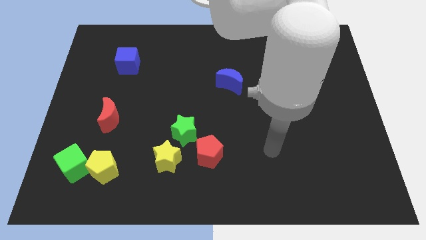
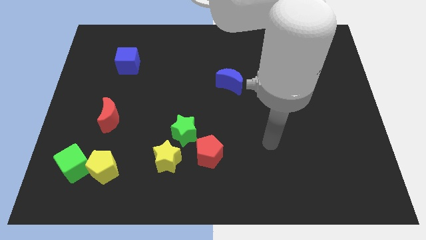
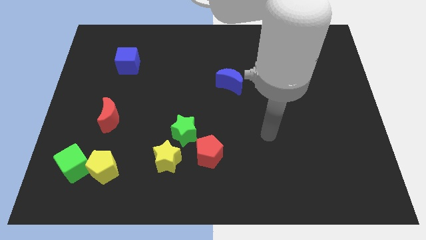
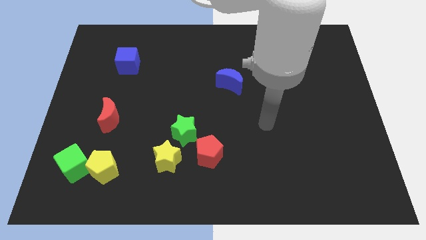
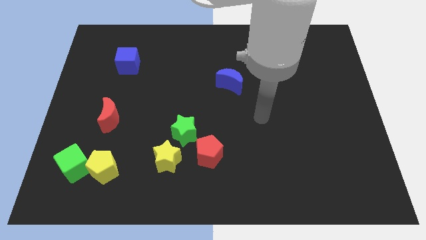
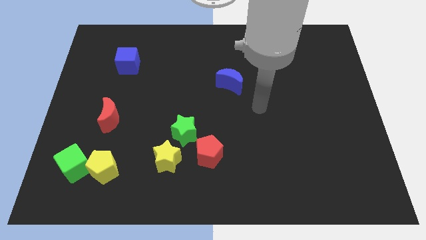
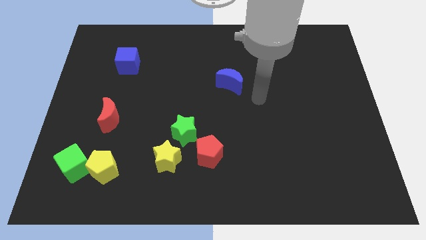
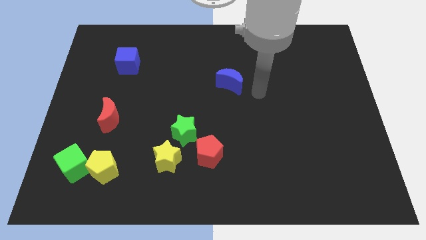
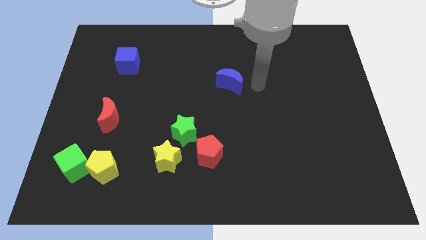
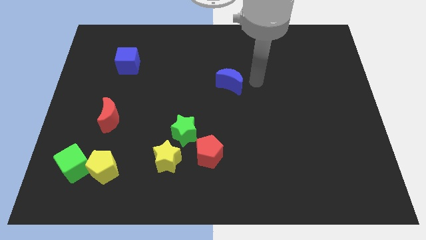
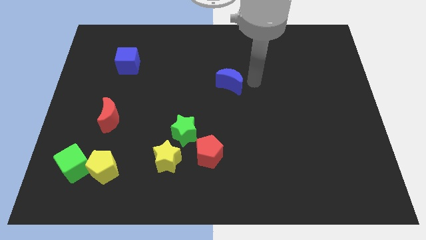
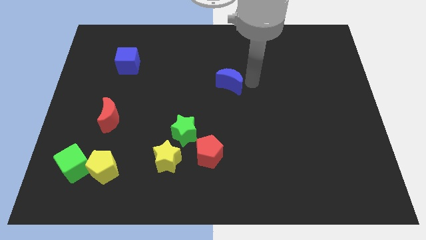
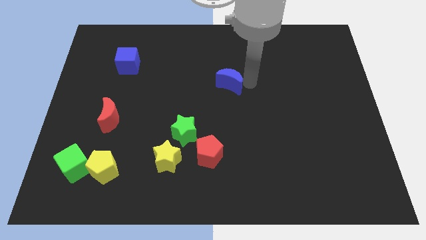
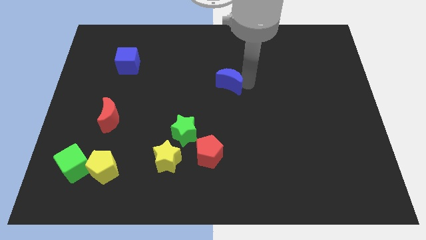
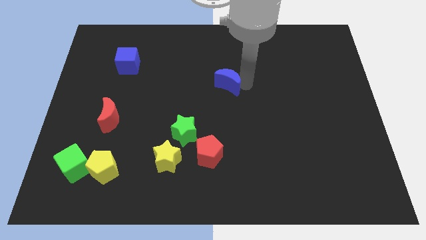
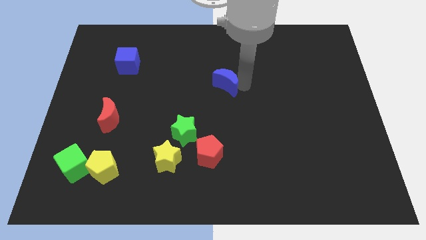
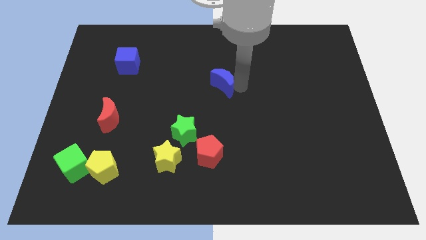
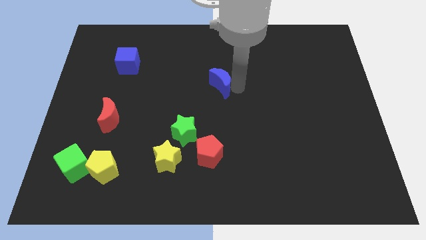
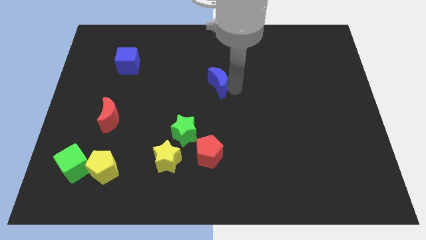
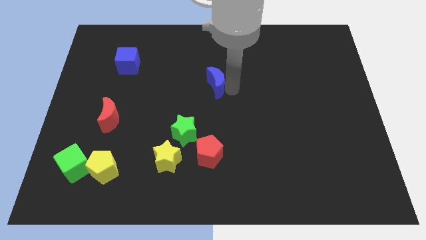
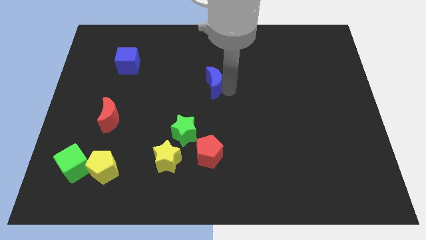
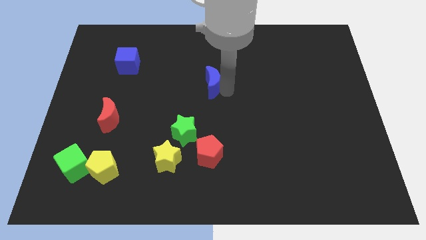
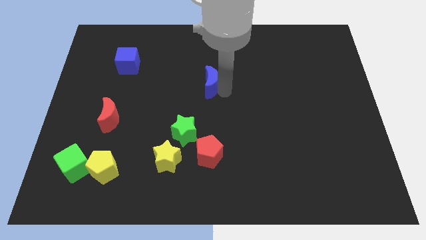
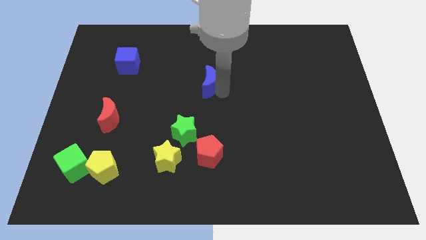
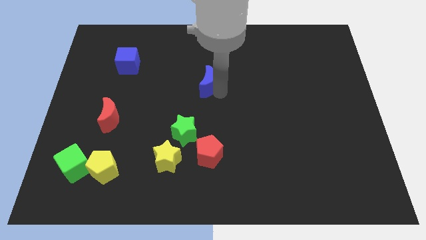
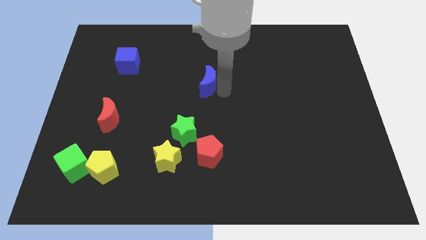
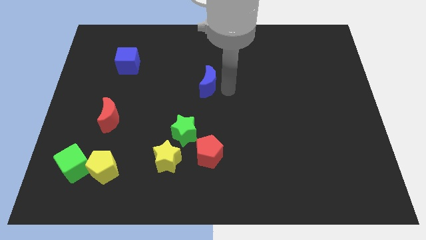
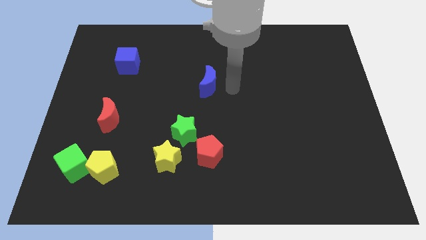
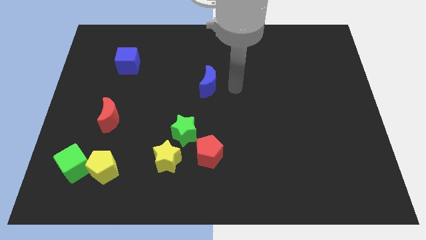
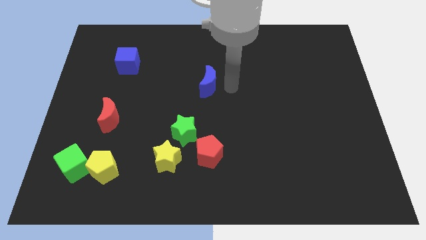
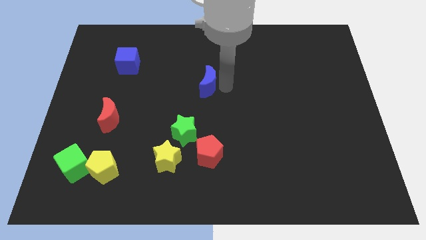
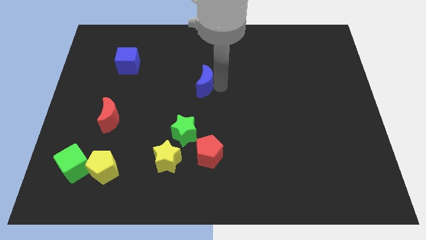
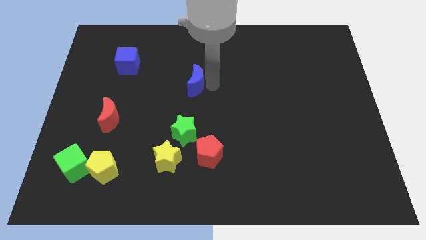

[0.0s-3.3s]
slide the blue moon left a little

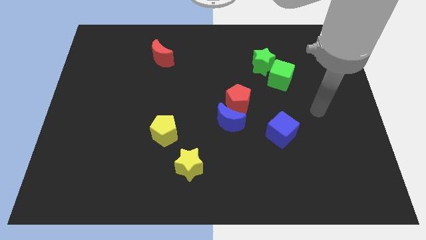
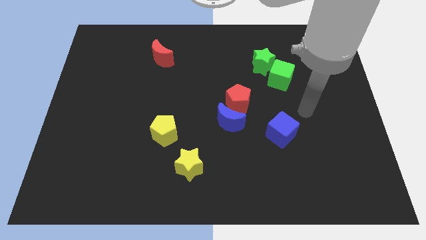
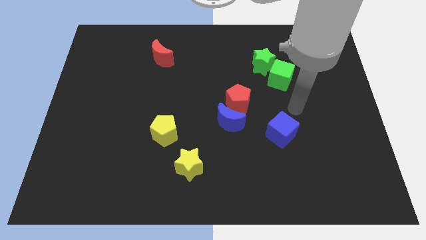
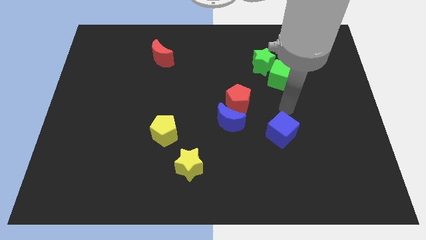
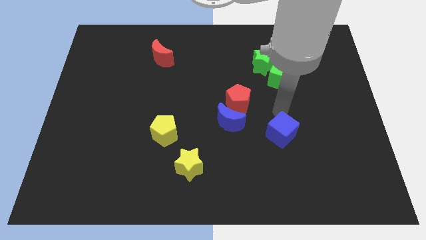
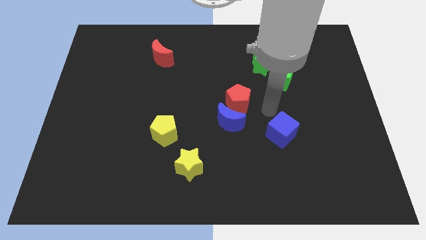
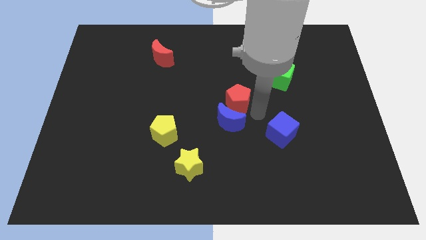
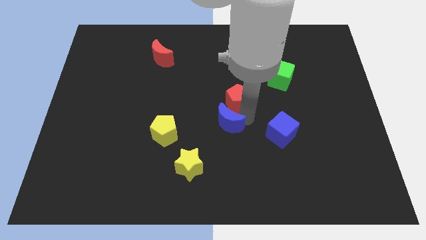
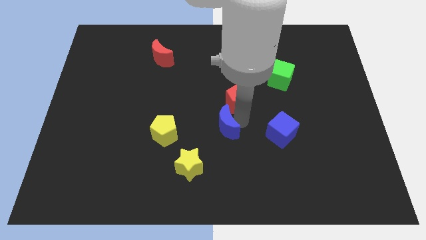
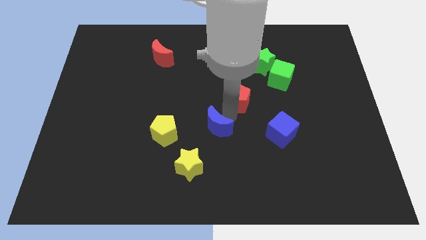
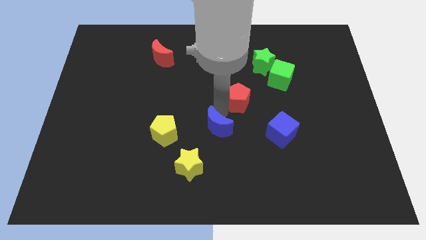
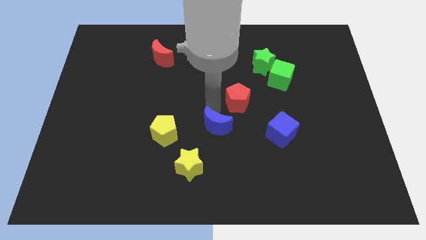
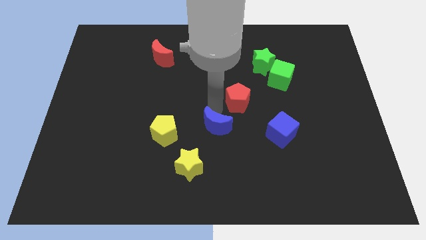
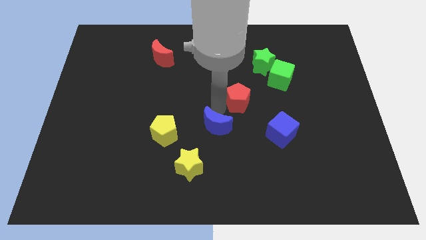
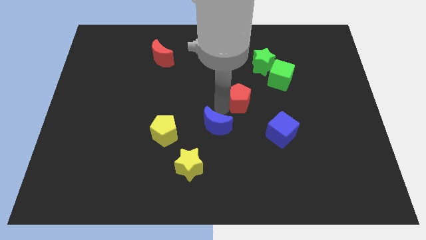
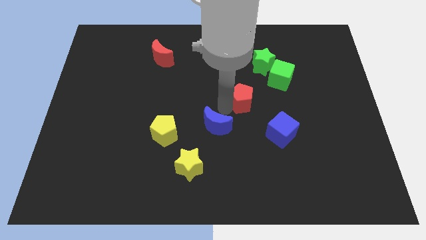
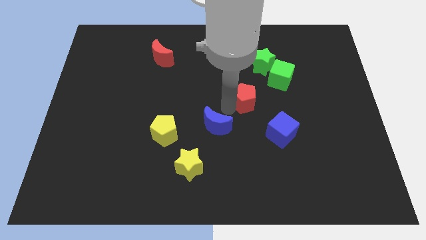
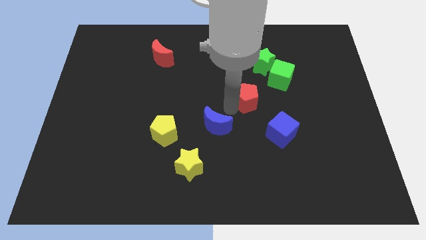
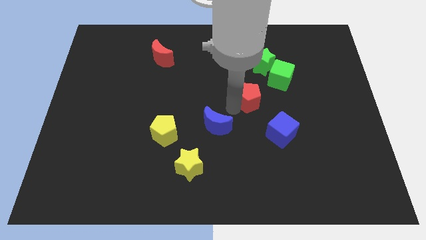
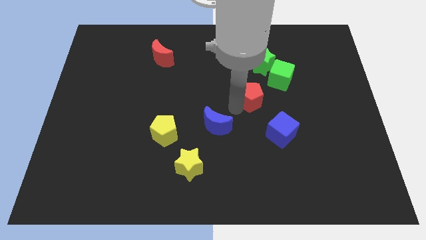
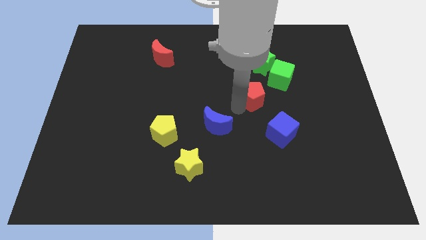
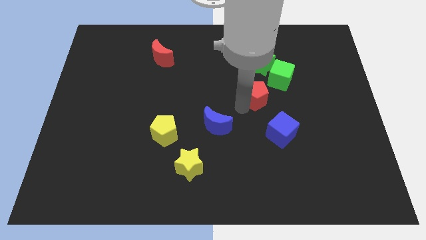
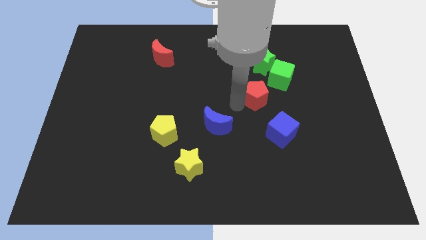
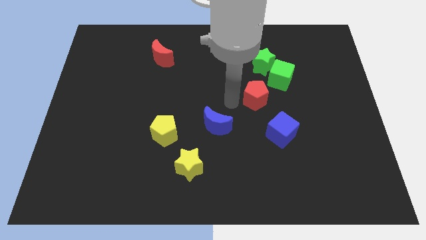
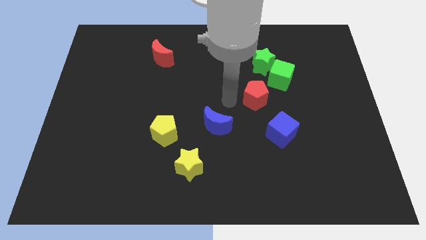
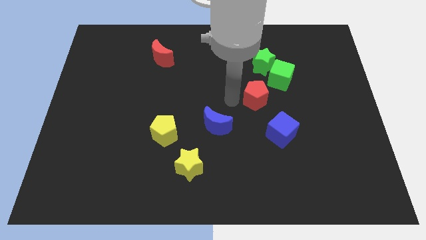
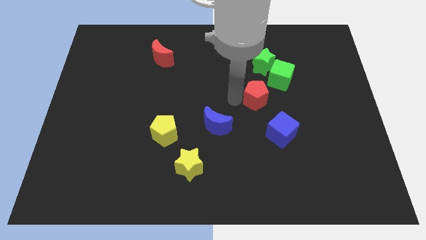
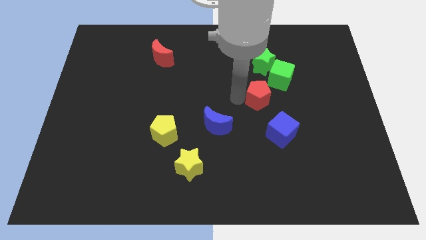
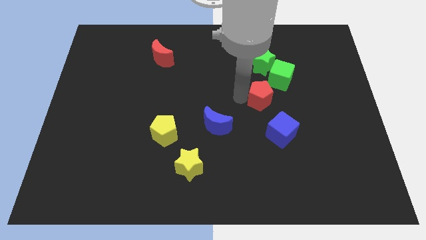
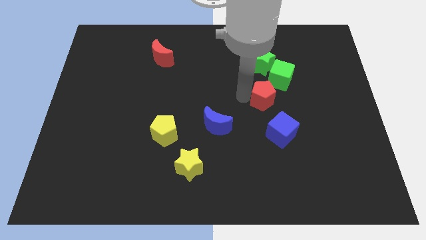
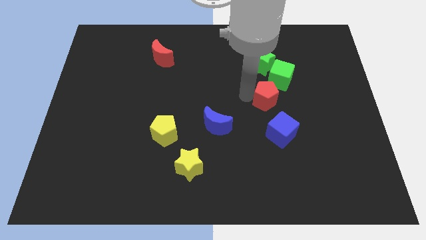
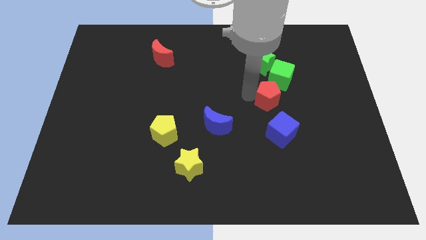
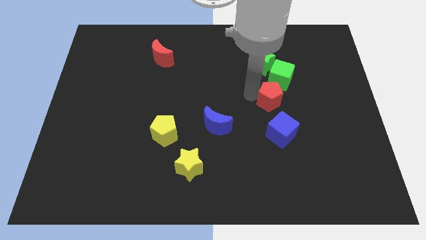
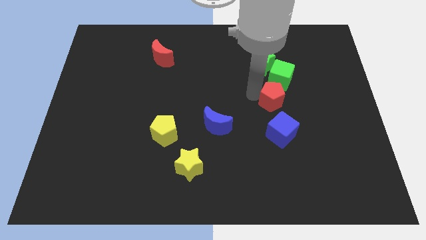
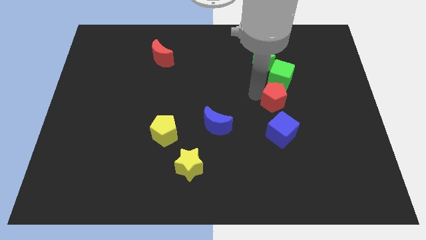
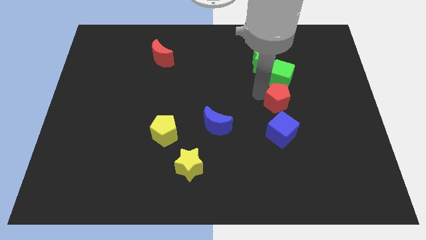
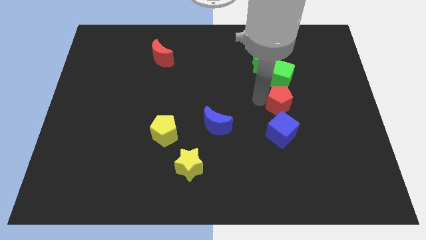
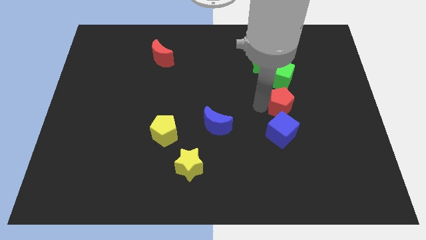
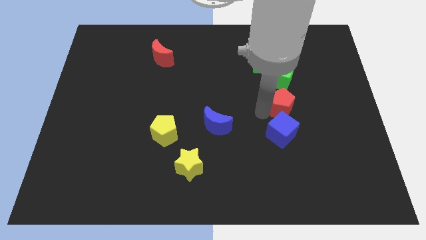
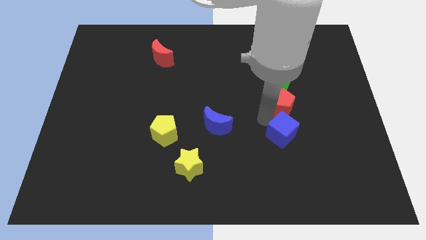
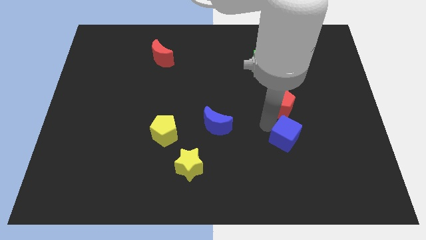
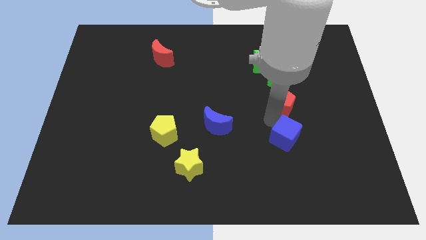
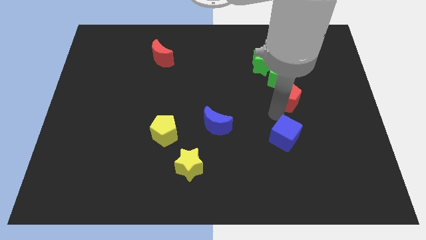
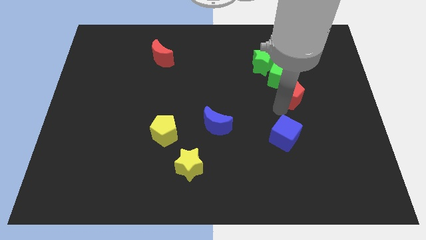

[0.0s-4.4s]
push the red pentagon diagonally up and right somewhat

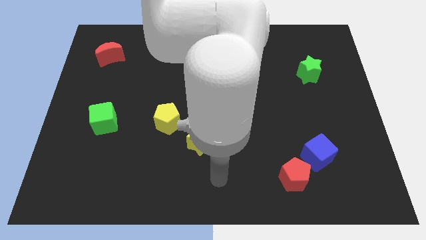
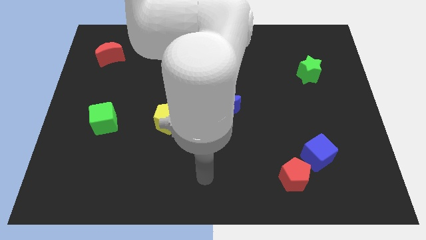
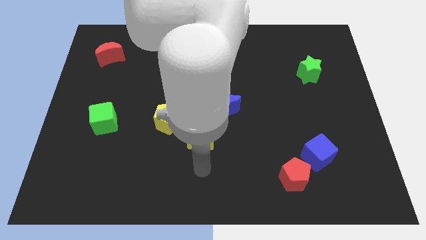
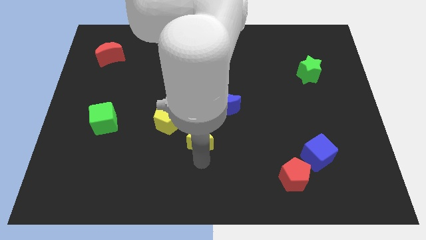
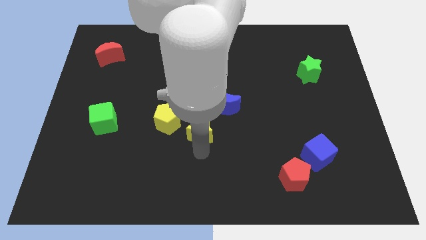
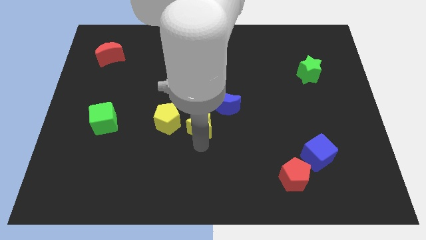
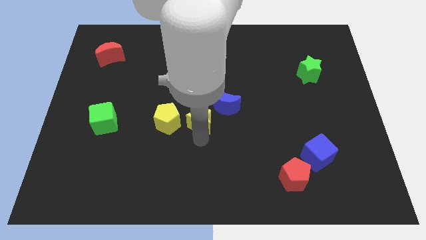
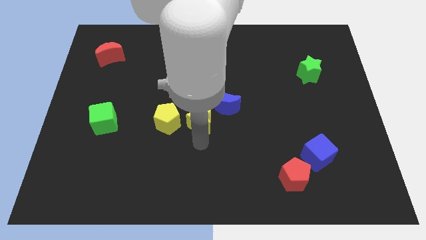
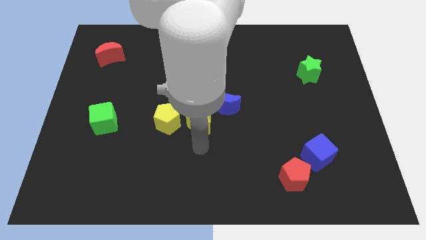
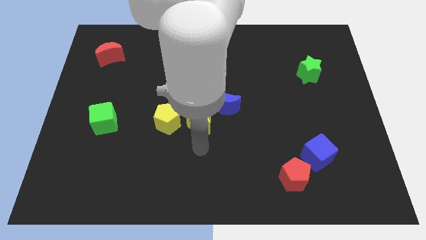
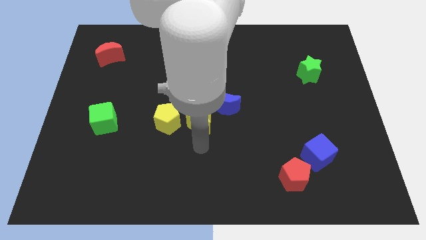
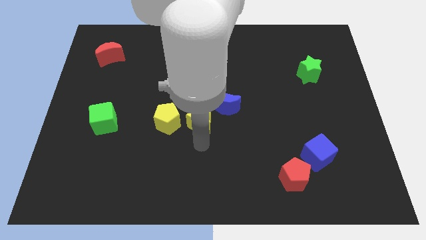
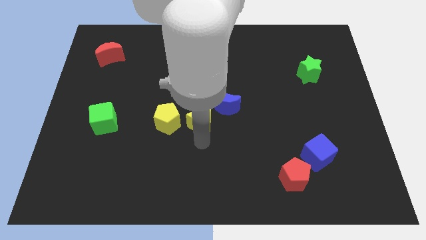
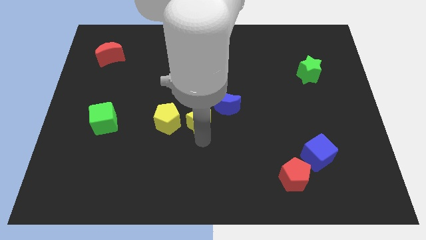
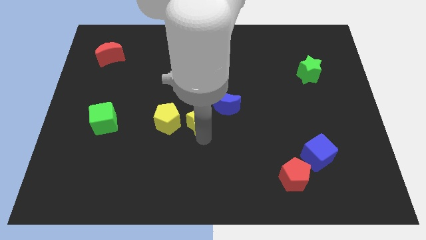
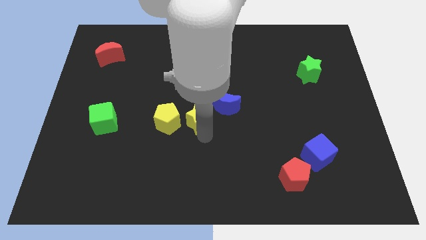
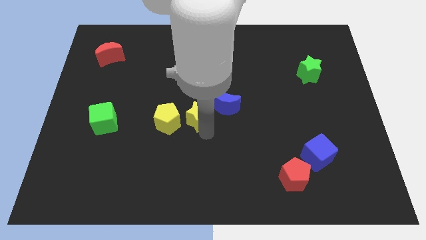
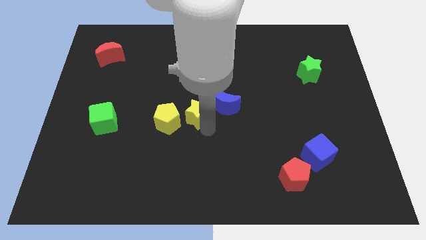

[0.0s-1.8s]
slightly slide the yellow star up
